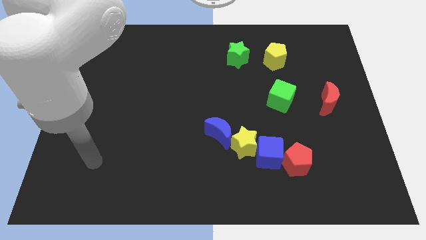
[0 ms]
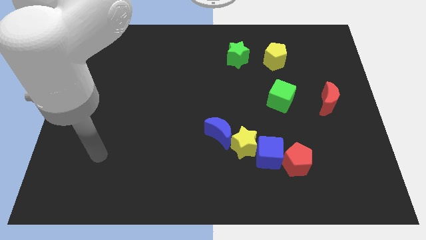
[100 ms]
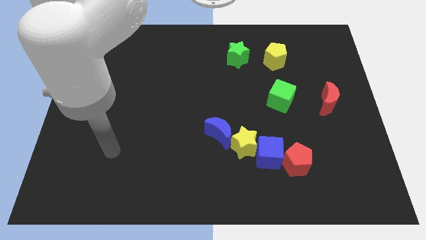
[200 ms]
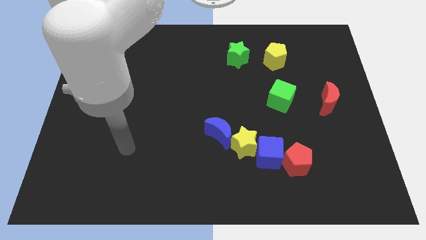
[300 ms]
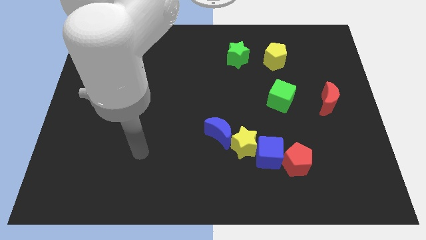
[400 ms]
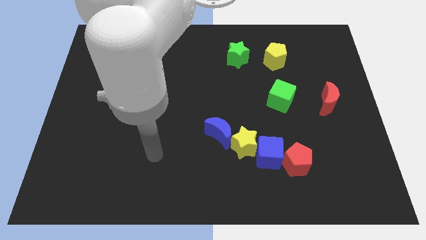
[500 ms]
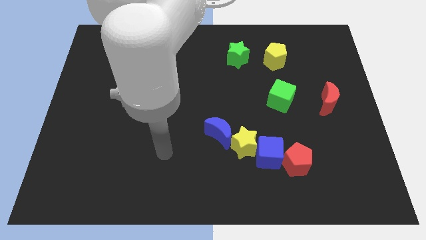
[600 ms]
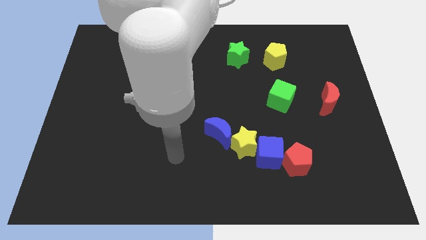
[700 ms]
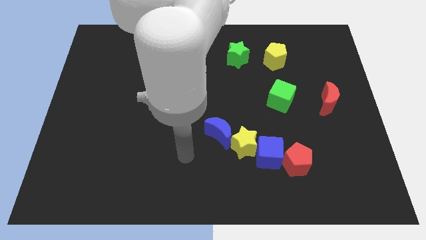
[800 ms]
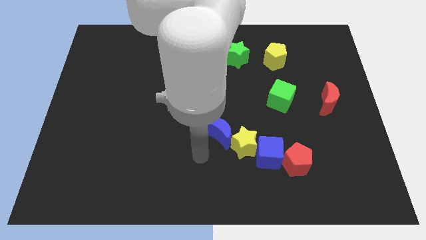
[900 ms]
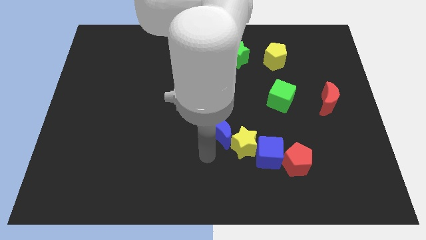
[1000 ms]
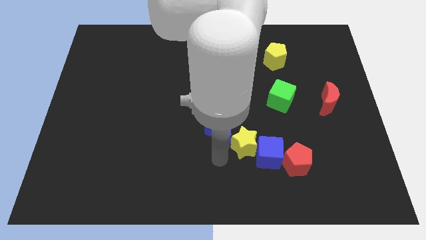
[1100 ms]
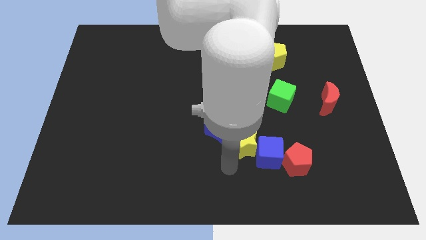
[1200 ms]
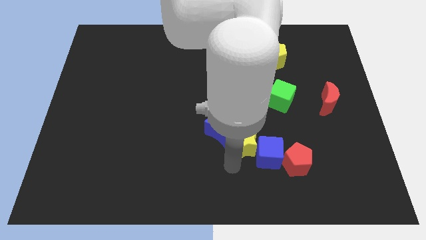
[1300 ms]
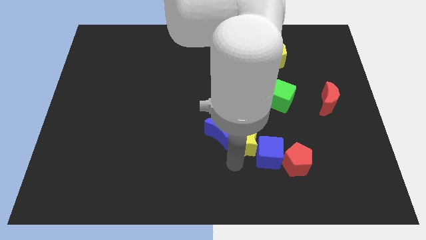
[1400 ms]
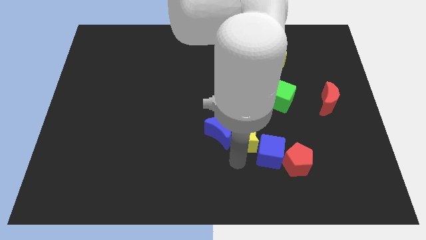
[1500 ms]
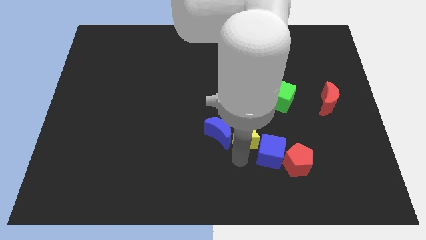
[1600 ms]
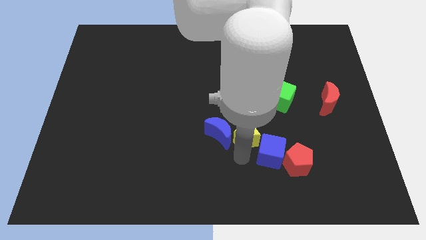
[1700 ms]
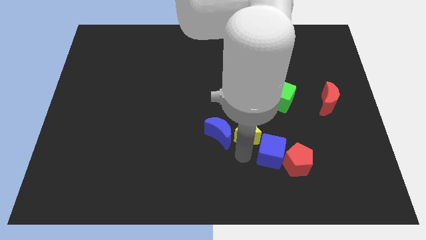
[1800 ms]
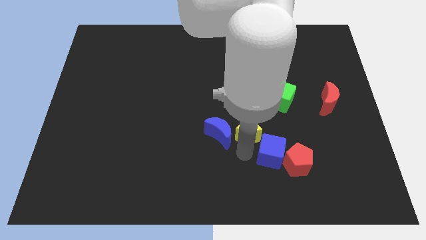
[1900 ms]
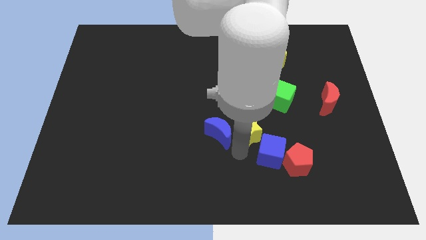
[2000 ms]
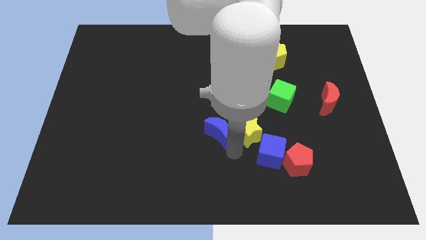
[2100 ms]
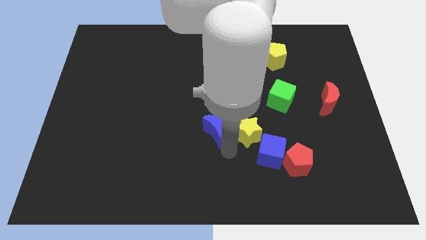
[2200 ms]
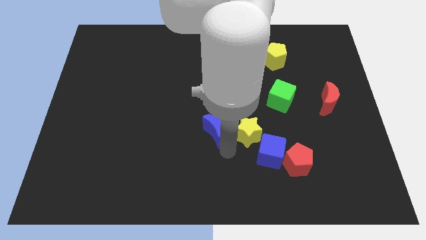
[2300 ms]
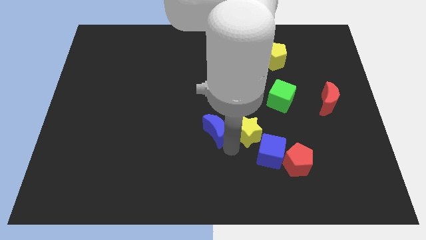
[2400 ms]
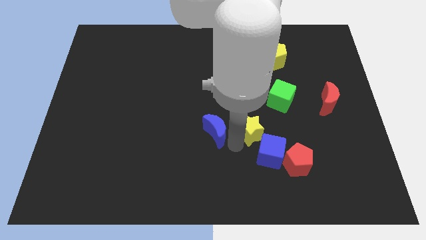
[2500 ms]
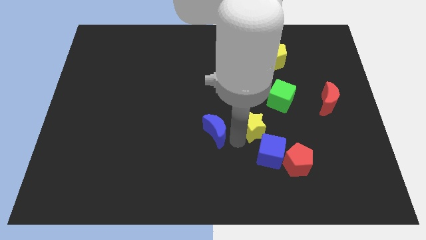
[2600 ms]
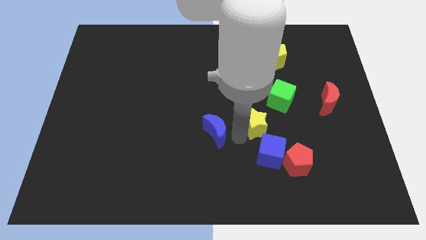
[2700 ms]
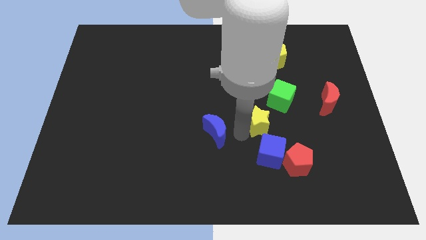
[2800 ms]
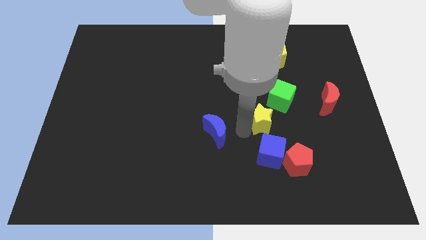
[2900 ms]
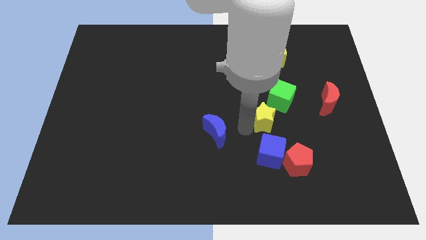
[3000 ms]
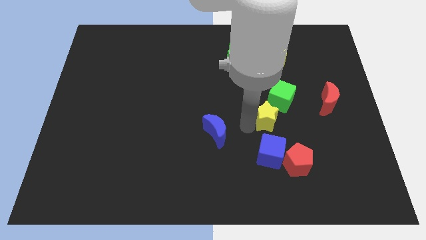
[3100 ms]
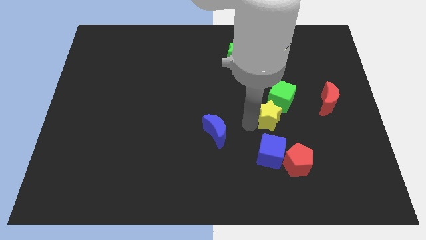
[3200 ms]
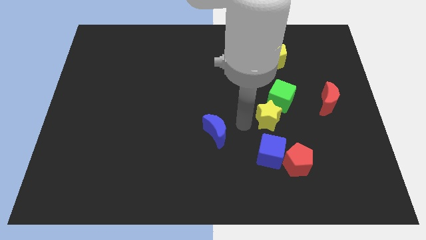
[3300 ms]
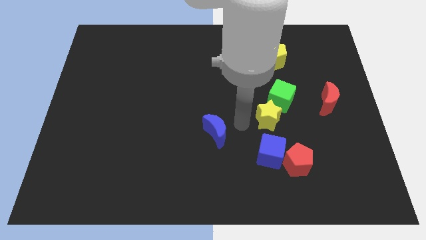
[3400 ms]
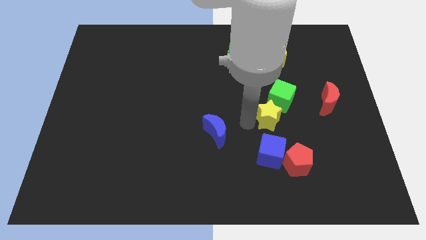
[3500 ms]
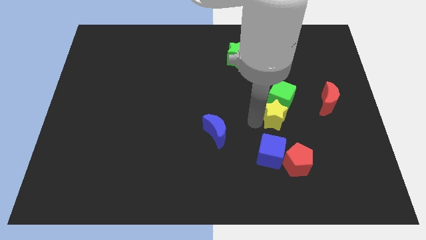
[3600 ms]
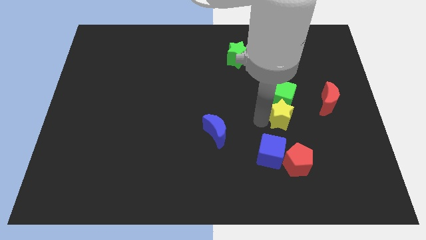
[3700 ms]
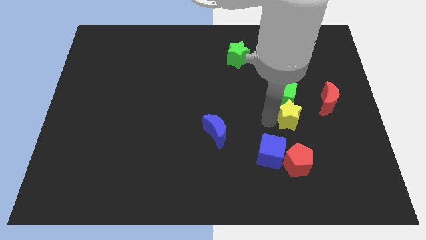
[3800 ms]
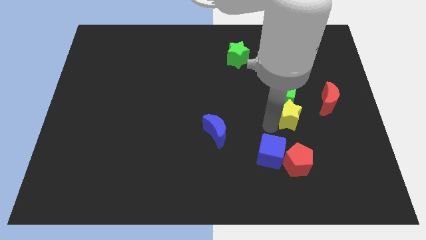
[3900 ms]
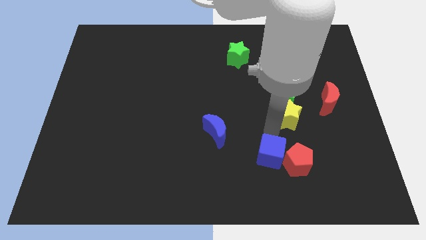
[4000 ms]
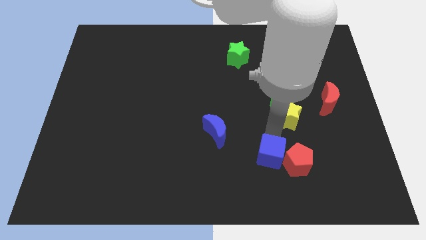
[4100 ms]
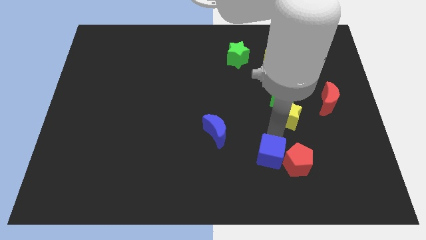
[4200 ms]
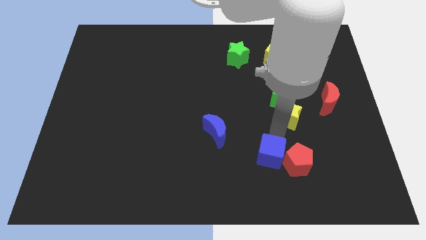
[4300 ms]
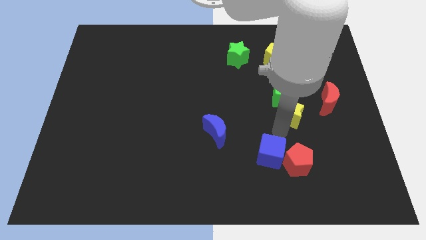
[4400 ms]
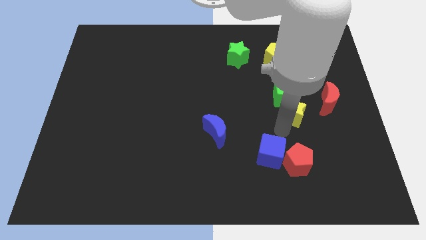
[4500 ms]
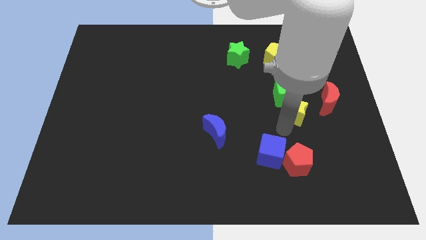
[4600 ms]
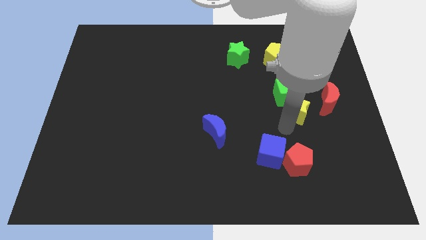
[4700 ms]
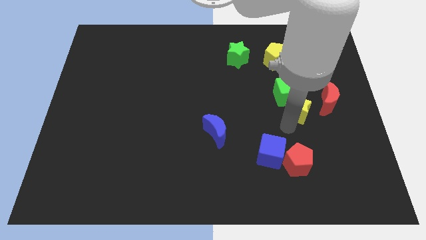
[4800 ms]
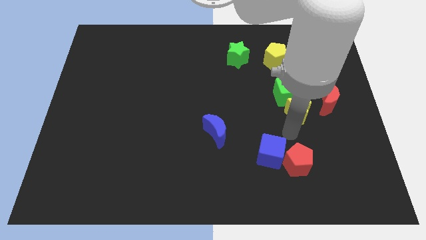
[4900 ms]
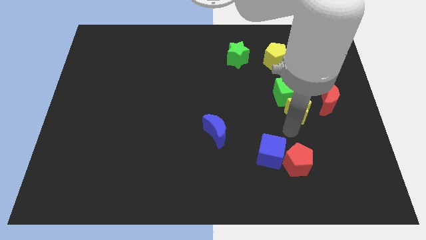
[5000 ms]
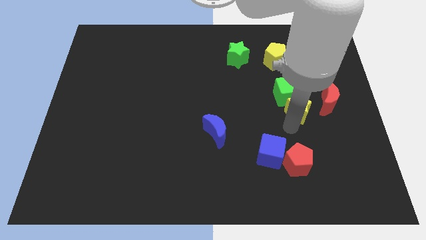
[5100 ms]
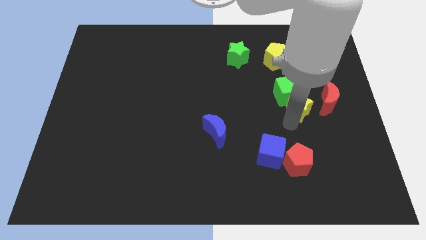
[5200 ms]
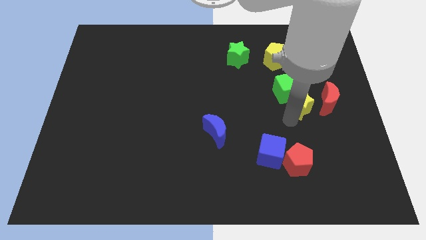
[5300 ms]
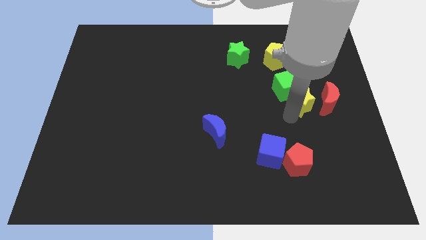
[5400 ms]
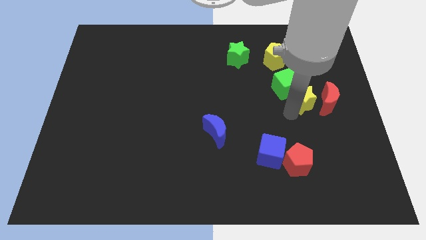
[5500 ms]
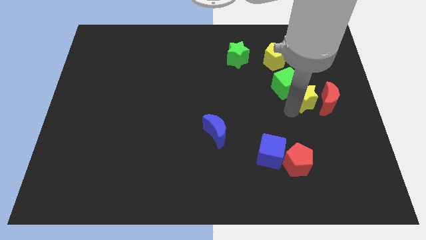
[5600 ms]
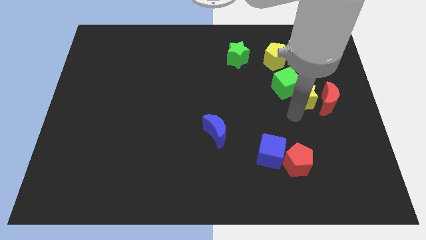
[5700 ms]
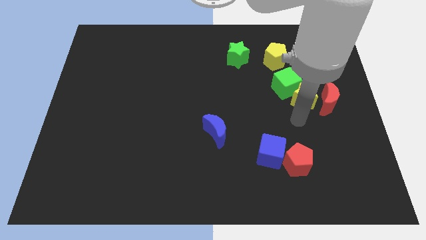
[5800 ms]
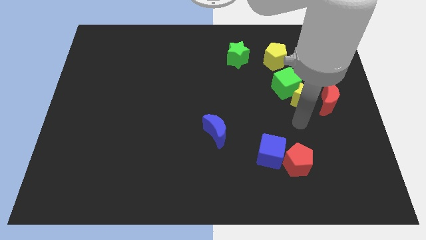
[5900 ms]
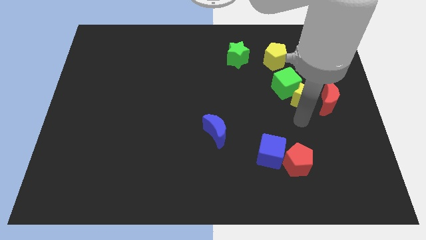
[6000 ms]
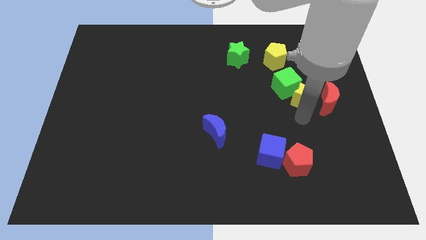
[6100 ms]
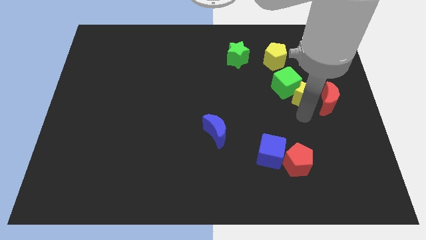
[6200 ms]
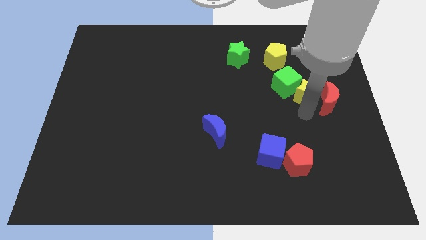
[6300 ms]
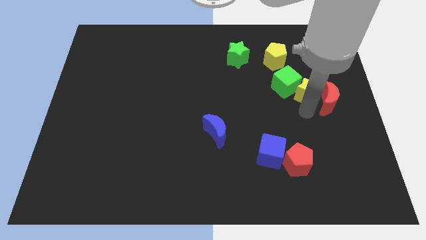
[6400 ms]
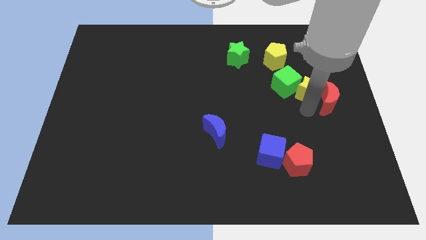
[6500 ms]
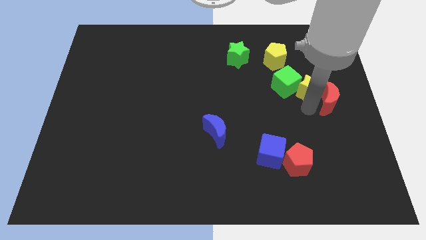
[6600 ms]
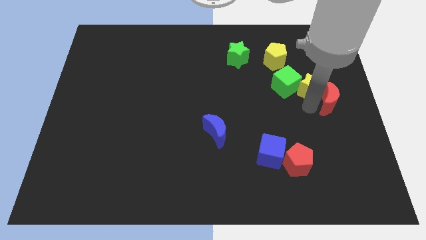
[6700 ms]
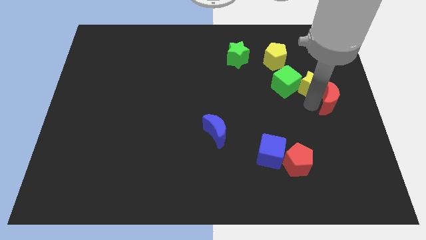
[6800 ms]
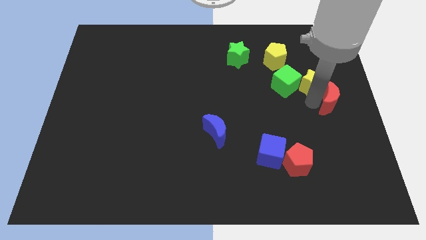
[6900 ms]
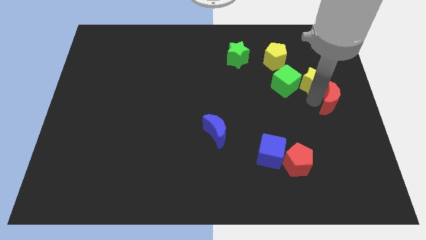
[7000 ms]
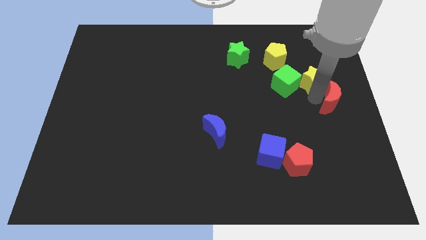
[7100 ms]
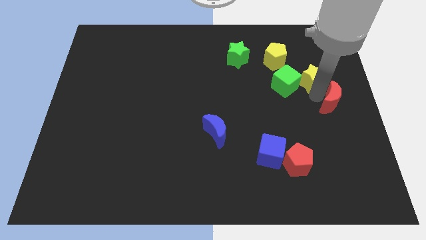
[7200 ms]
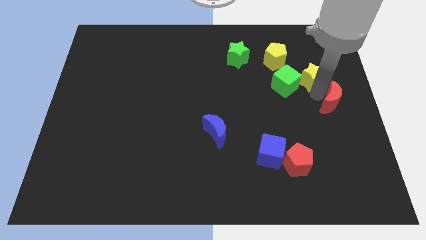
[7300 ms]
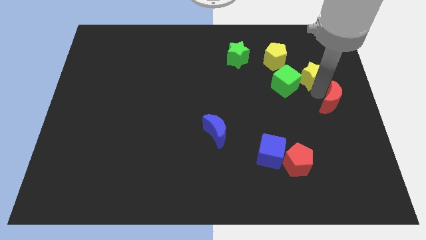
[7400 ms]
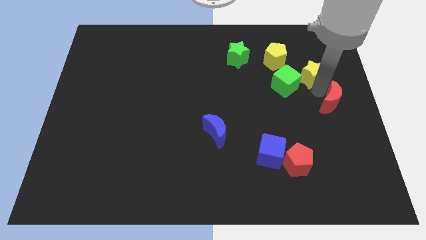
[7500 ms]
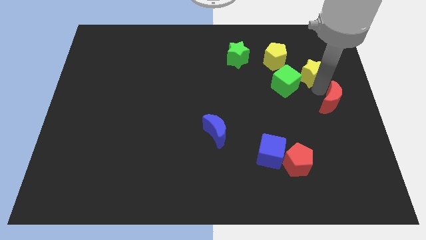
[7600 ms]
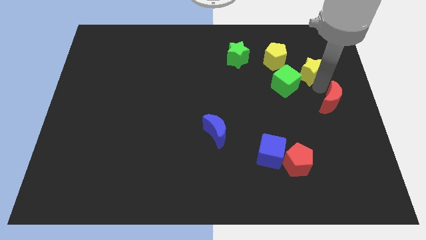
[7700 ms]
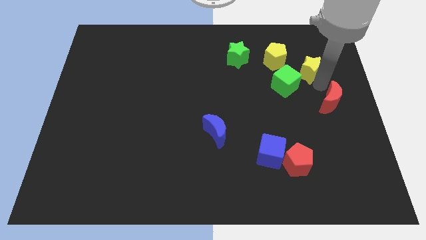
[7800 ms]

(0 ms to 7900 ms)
push the yellow star right of the yellow pentagon
